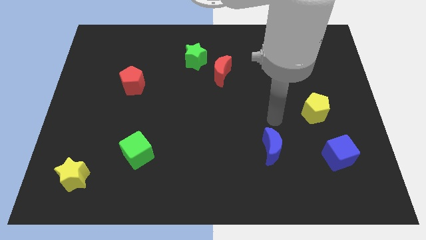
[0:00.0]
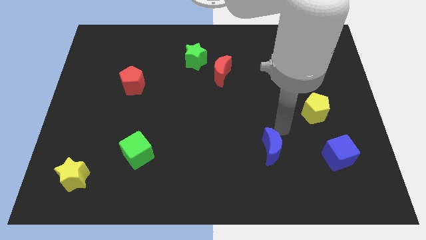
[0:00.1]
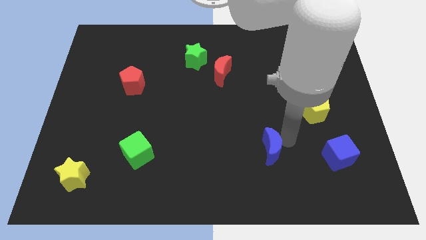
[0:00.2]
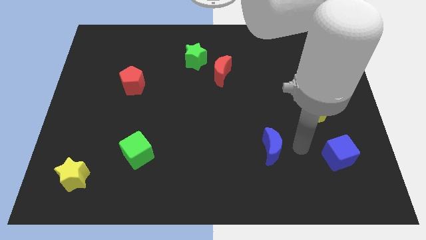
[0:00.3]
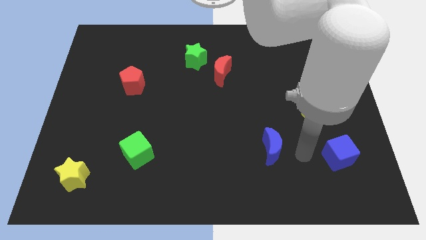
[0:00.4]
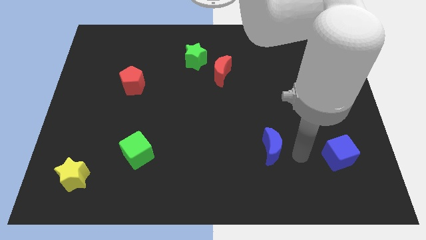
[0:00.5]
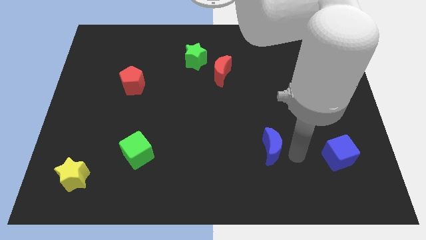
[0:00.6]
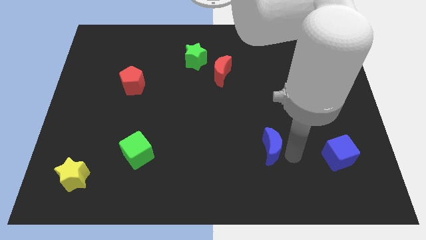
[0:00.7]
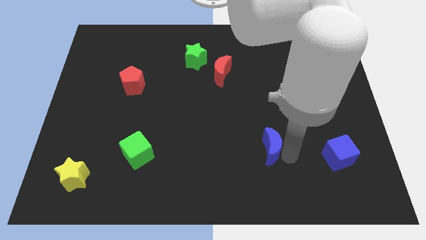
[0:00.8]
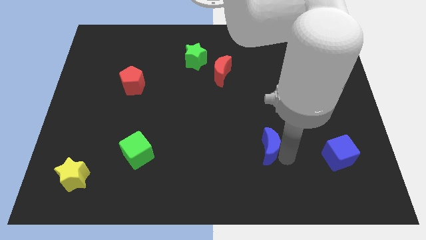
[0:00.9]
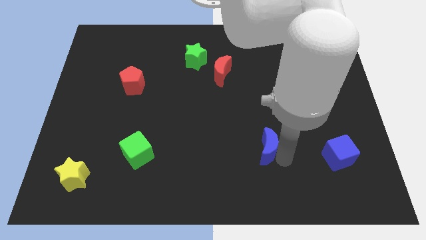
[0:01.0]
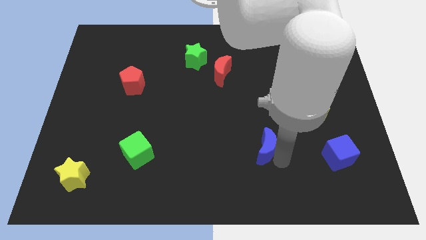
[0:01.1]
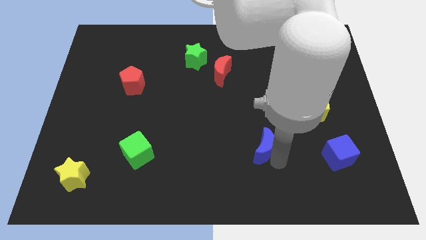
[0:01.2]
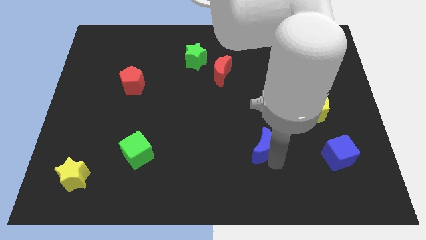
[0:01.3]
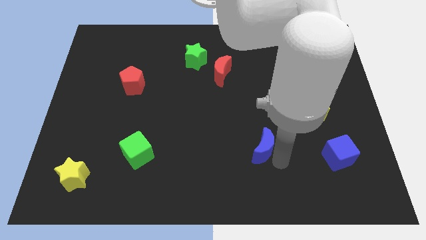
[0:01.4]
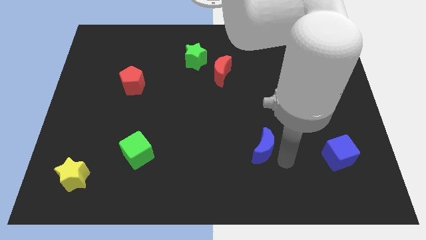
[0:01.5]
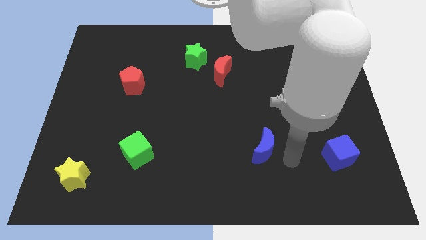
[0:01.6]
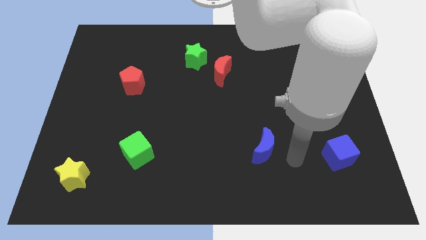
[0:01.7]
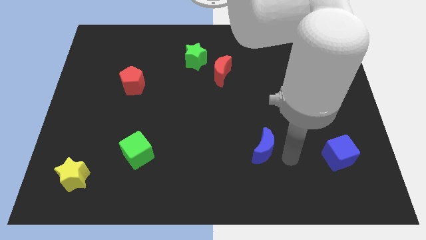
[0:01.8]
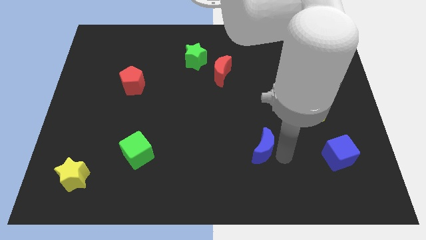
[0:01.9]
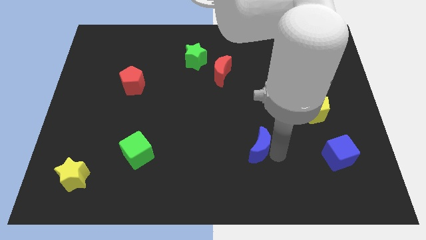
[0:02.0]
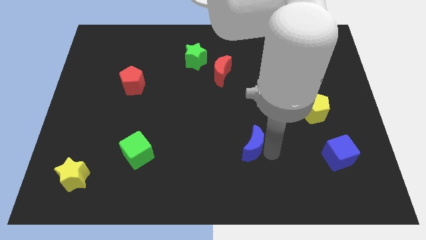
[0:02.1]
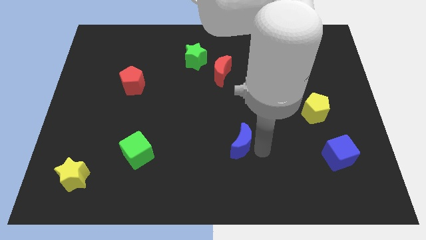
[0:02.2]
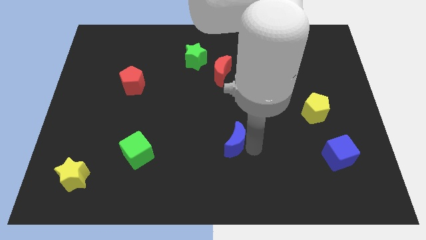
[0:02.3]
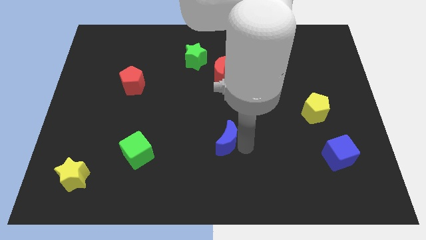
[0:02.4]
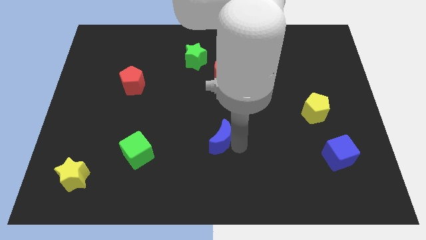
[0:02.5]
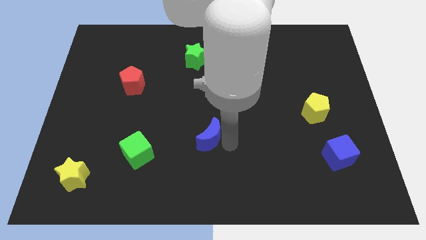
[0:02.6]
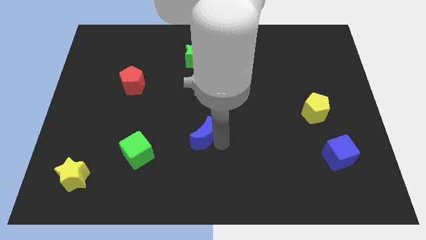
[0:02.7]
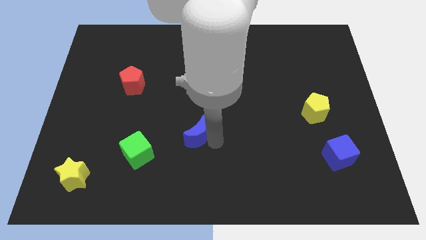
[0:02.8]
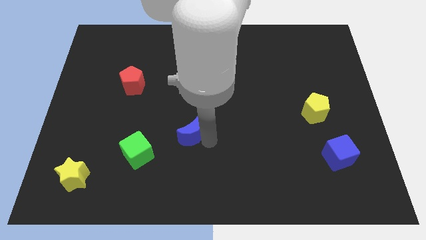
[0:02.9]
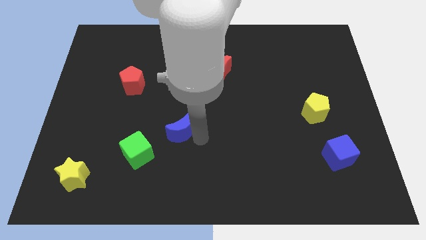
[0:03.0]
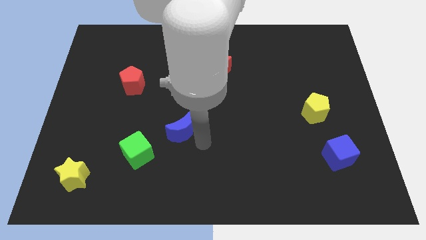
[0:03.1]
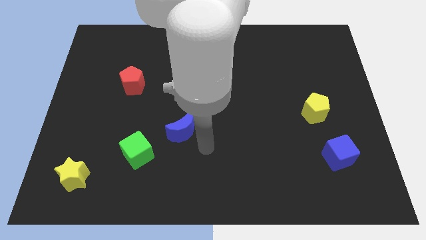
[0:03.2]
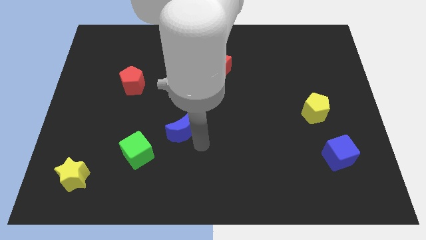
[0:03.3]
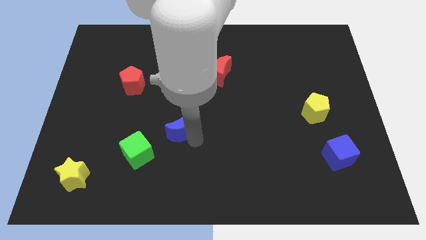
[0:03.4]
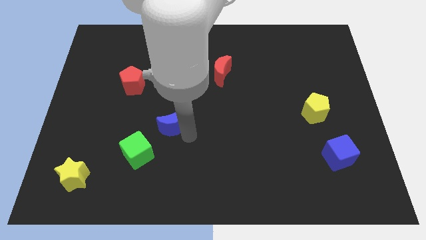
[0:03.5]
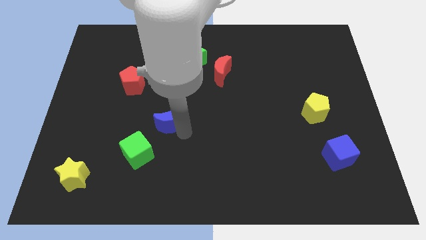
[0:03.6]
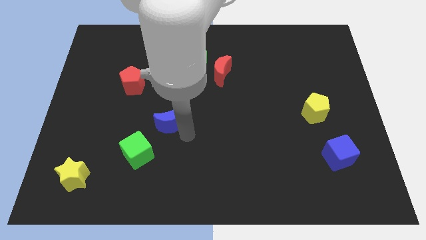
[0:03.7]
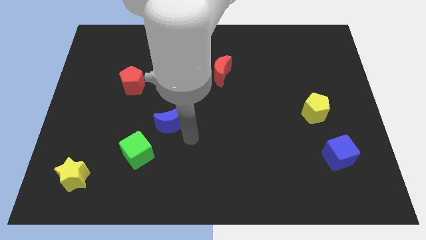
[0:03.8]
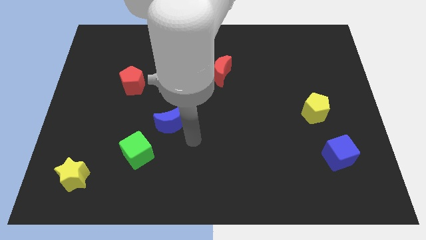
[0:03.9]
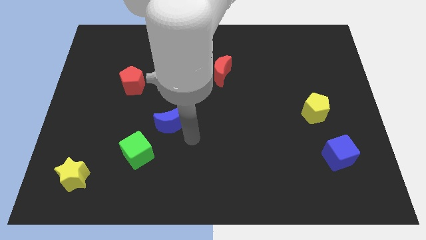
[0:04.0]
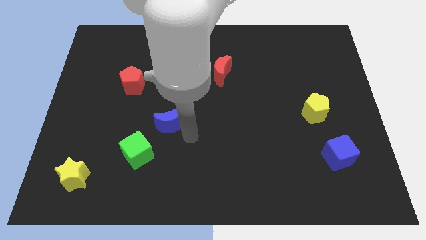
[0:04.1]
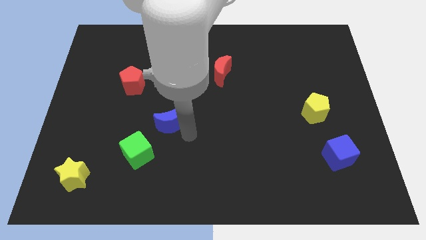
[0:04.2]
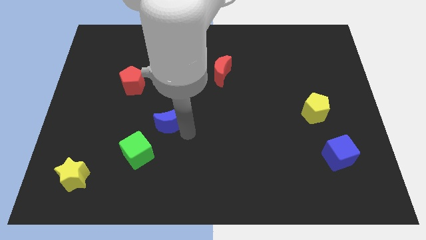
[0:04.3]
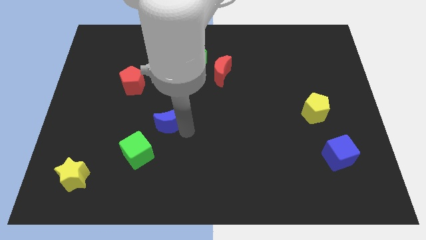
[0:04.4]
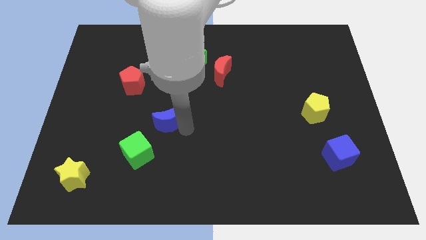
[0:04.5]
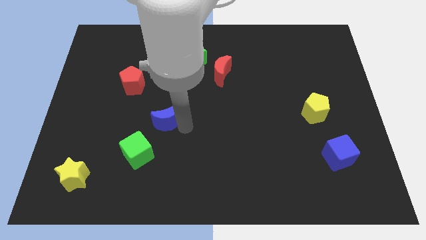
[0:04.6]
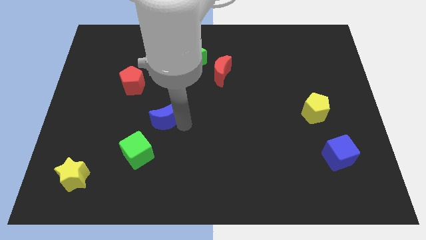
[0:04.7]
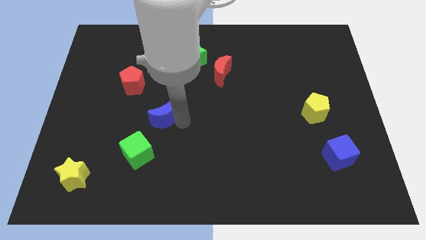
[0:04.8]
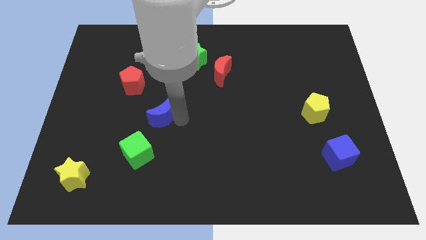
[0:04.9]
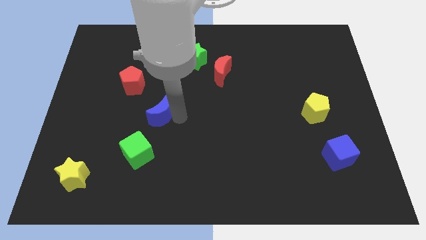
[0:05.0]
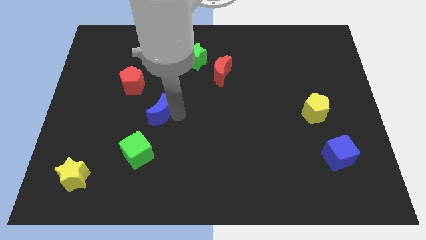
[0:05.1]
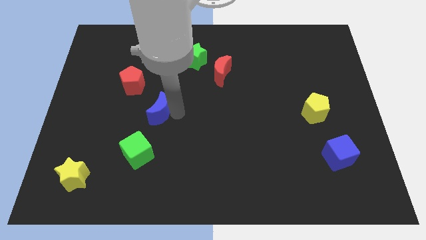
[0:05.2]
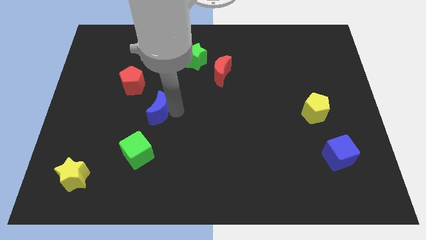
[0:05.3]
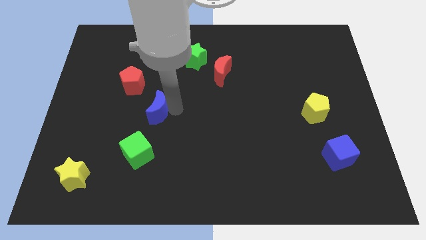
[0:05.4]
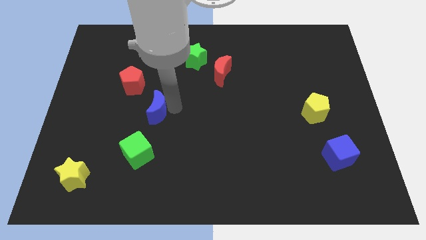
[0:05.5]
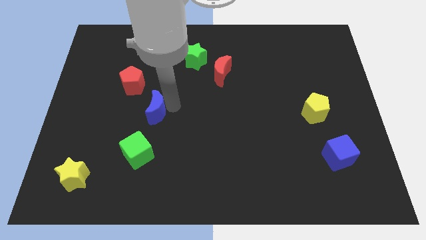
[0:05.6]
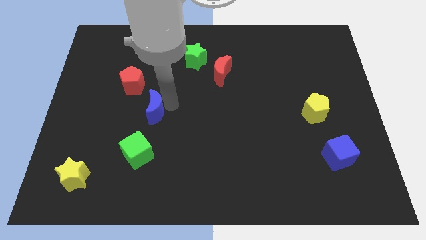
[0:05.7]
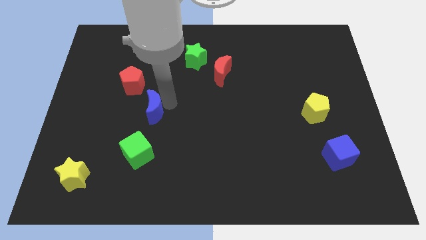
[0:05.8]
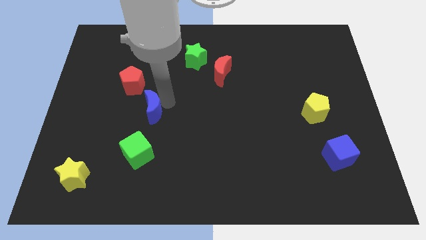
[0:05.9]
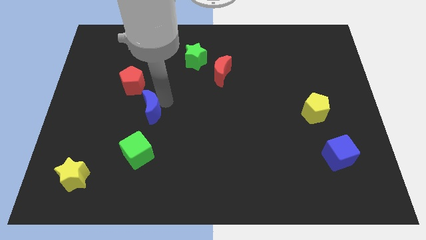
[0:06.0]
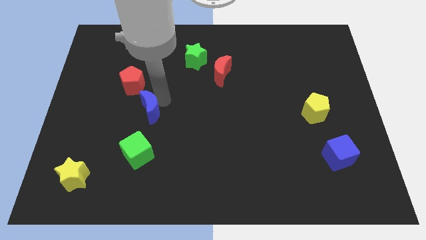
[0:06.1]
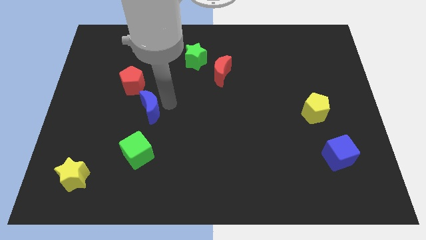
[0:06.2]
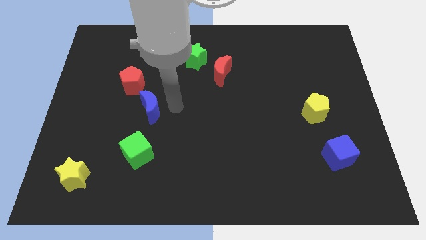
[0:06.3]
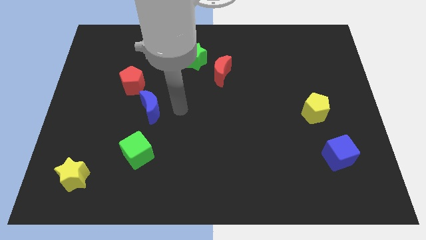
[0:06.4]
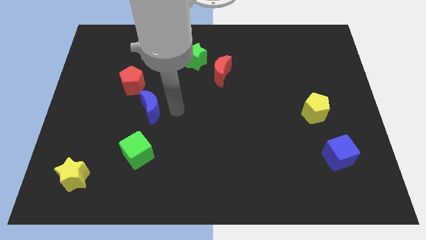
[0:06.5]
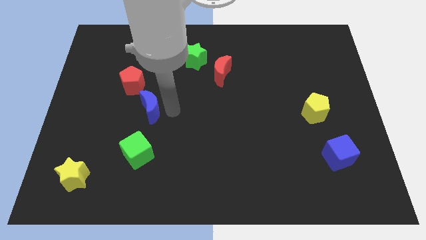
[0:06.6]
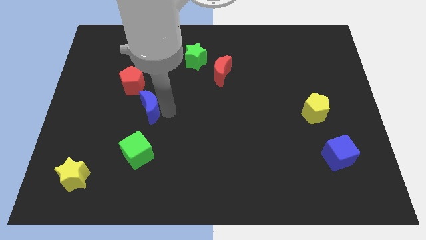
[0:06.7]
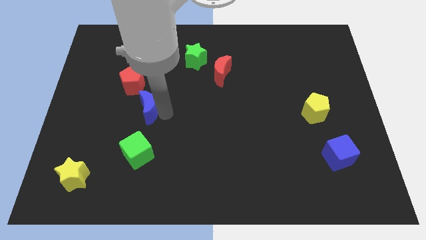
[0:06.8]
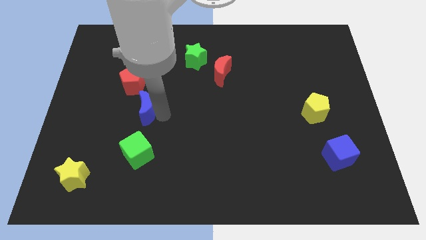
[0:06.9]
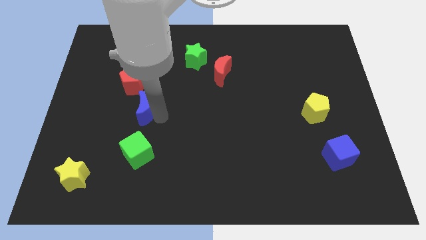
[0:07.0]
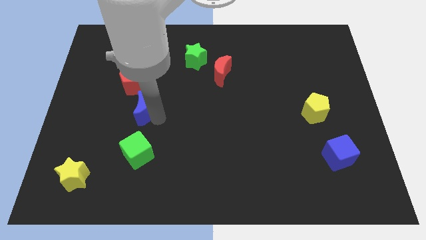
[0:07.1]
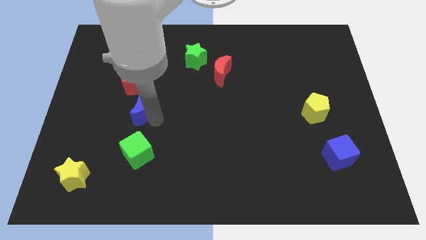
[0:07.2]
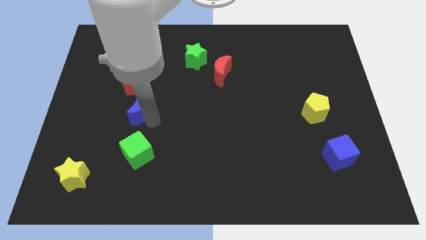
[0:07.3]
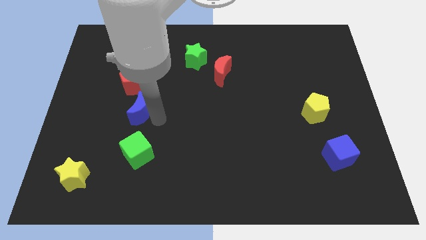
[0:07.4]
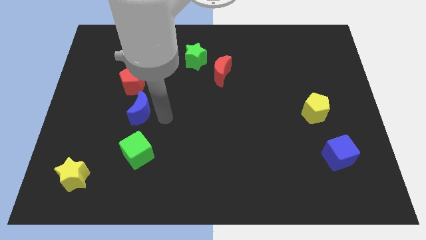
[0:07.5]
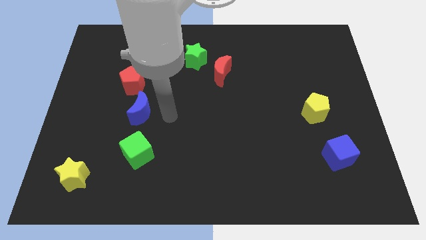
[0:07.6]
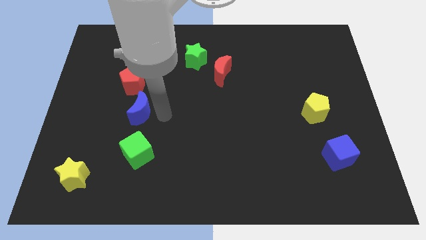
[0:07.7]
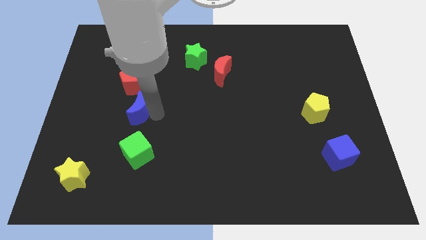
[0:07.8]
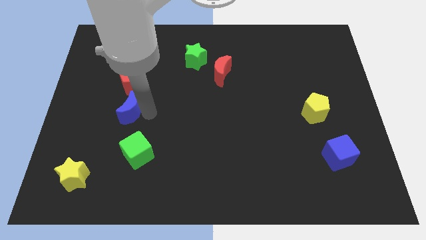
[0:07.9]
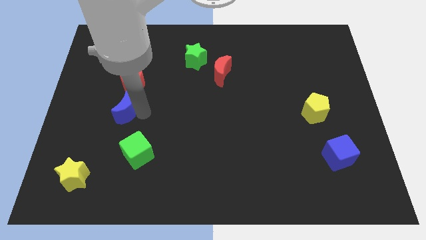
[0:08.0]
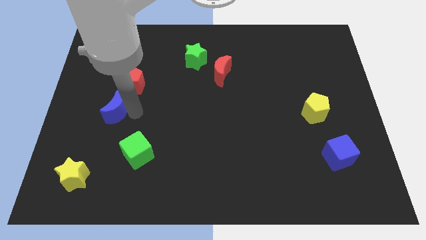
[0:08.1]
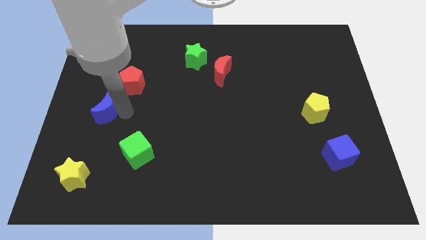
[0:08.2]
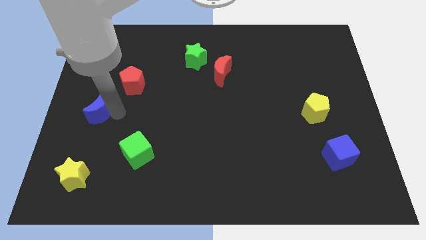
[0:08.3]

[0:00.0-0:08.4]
put the blue moon to the center left
